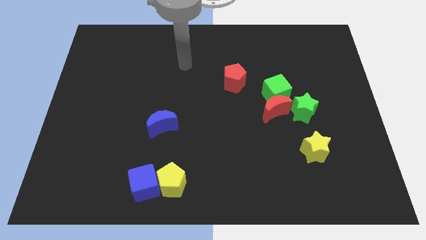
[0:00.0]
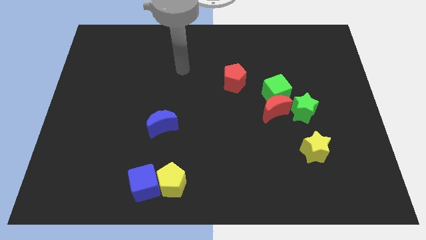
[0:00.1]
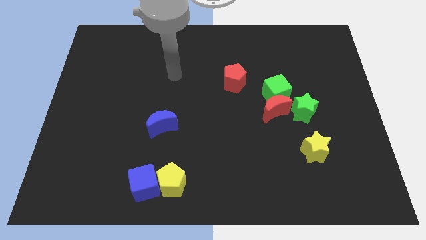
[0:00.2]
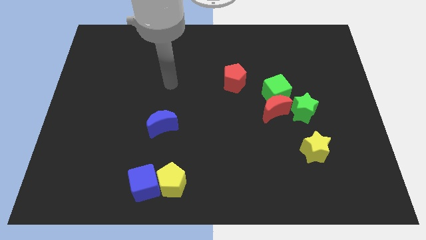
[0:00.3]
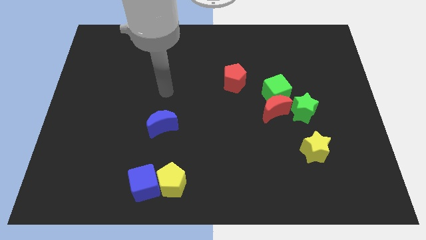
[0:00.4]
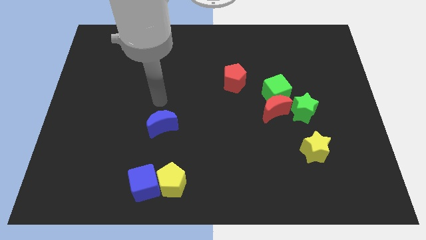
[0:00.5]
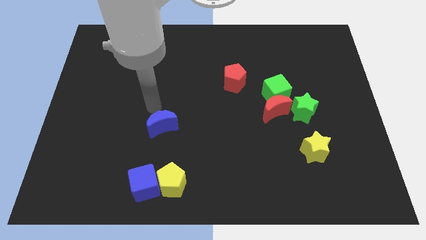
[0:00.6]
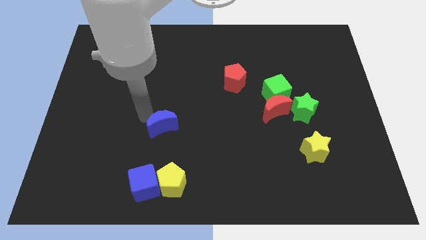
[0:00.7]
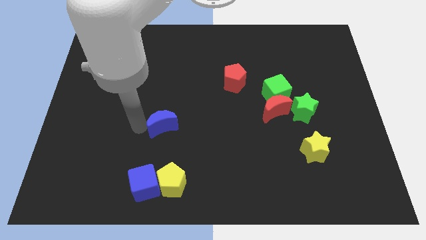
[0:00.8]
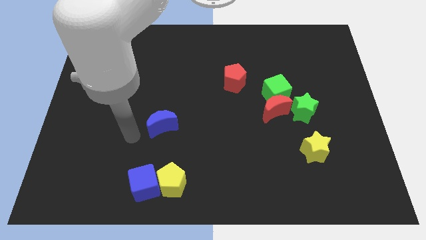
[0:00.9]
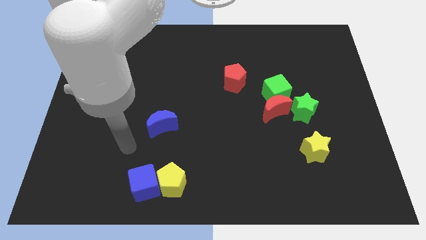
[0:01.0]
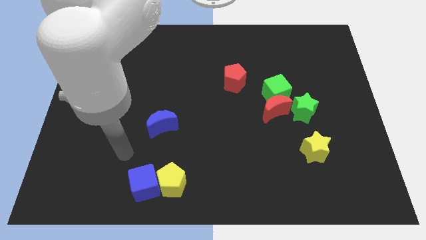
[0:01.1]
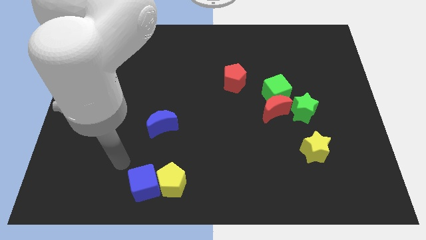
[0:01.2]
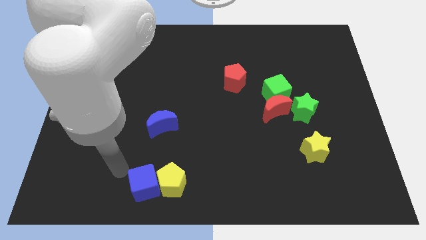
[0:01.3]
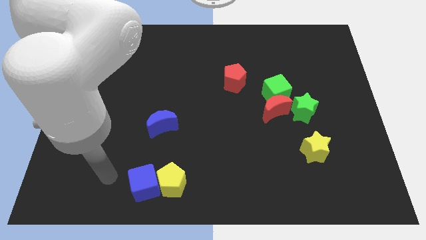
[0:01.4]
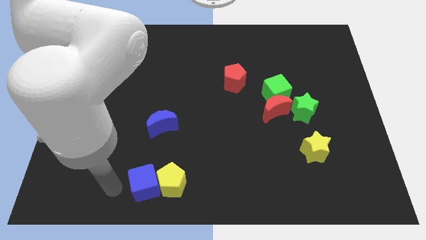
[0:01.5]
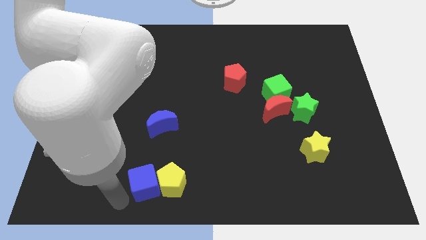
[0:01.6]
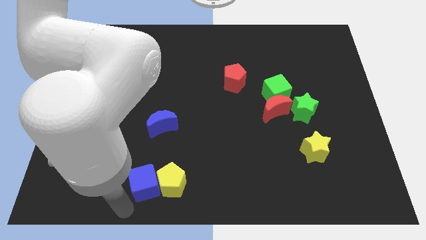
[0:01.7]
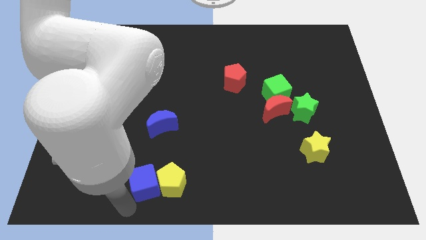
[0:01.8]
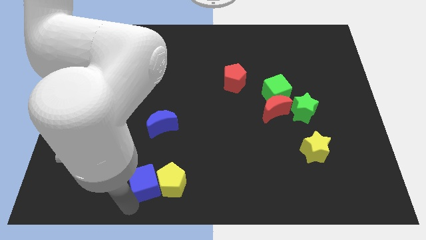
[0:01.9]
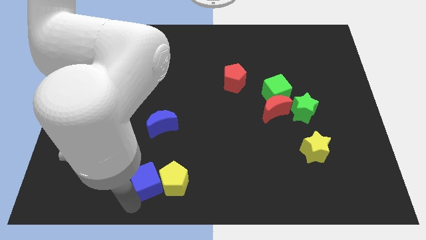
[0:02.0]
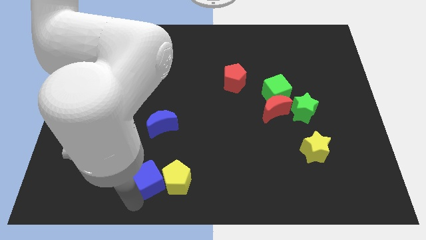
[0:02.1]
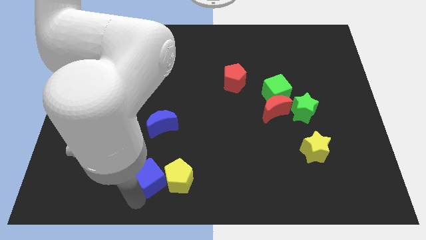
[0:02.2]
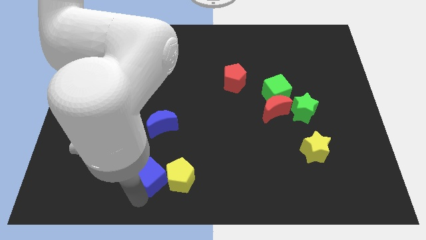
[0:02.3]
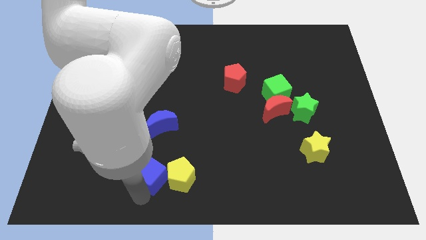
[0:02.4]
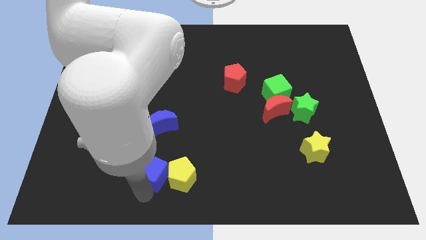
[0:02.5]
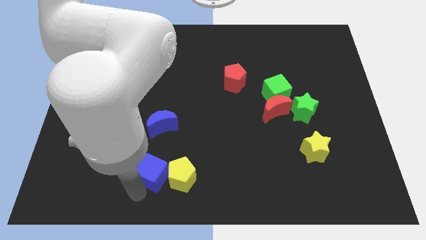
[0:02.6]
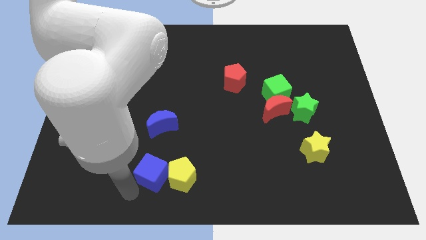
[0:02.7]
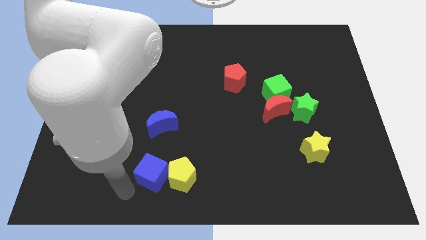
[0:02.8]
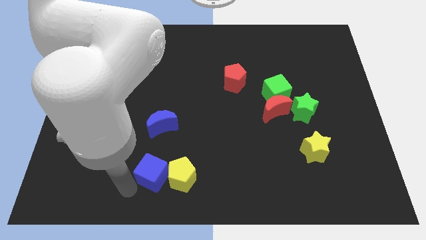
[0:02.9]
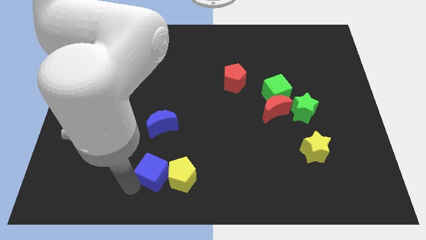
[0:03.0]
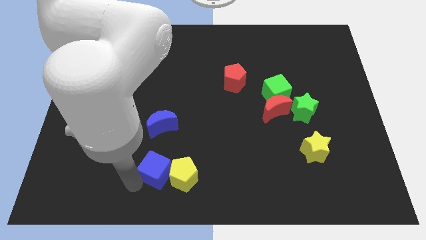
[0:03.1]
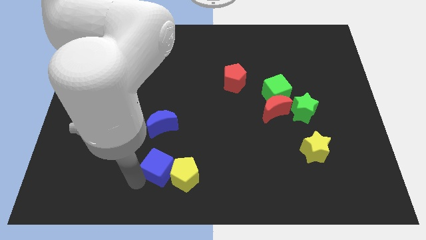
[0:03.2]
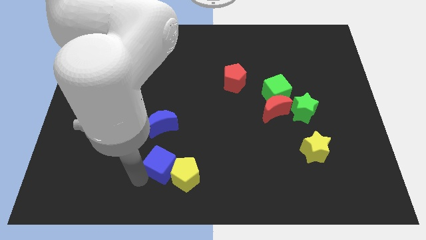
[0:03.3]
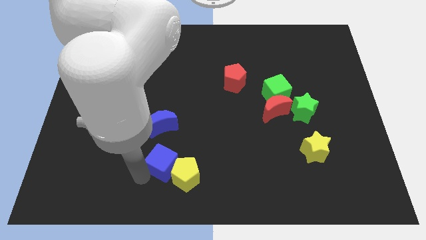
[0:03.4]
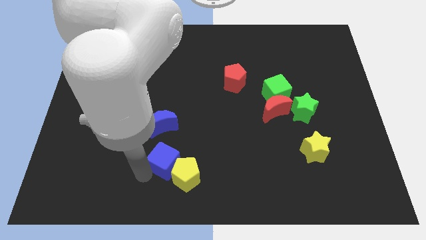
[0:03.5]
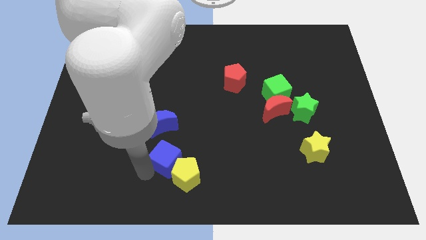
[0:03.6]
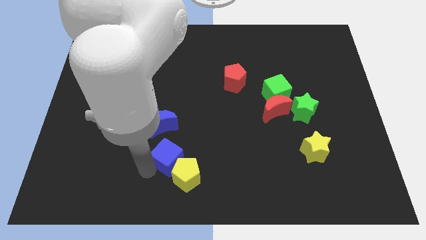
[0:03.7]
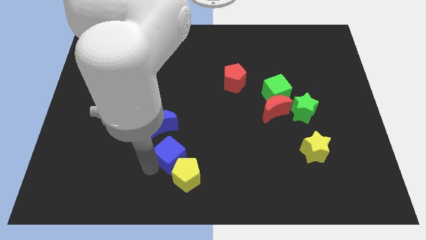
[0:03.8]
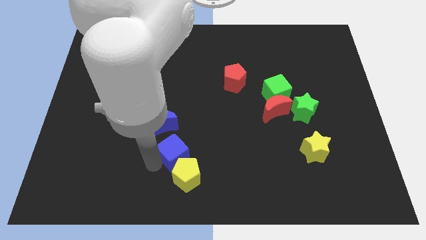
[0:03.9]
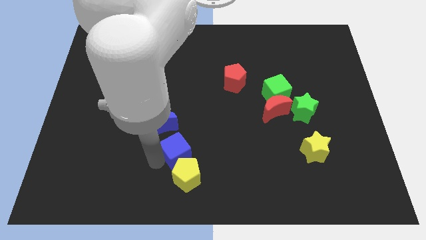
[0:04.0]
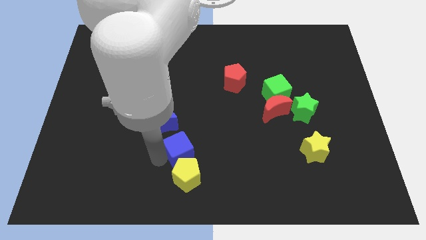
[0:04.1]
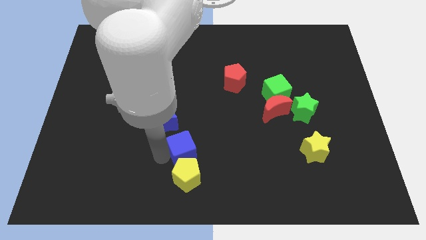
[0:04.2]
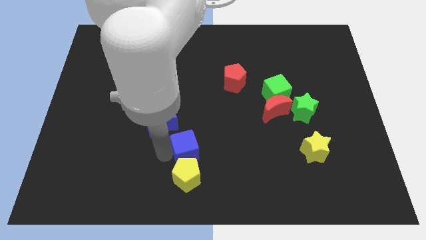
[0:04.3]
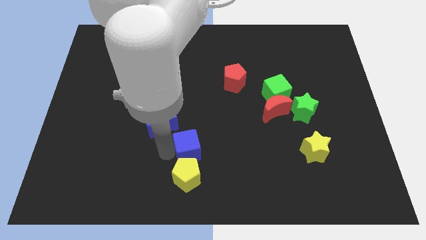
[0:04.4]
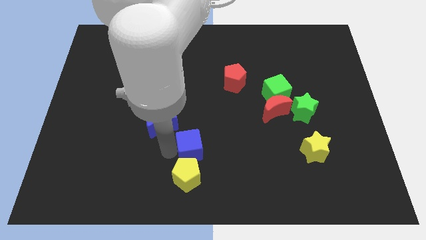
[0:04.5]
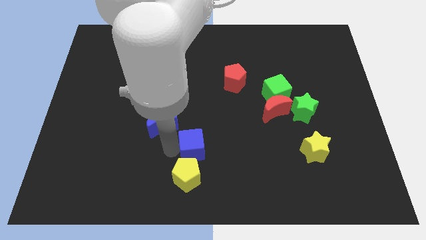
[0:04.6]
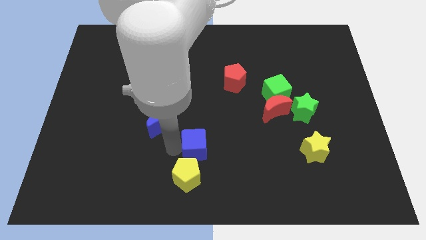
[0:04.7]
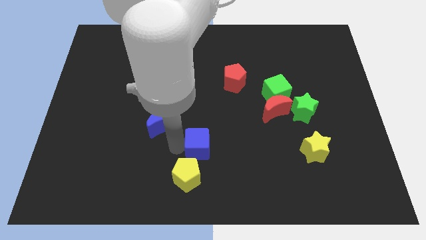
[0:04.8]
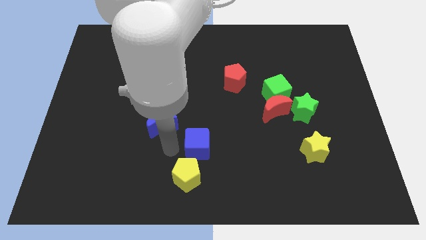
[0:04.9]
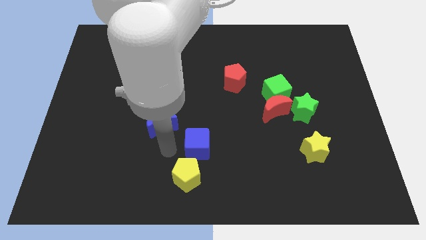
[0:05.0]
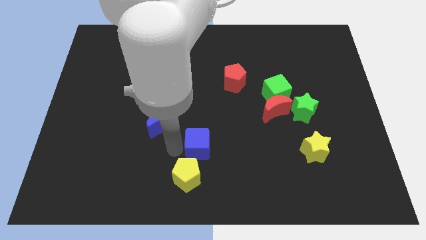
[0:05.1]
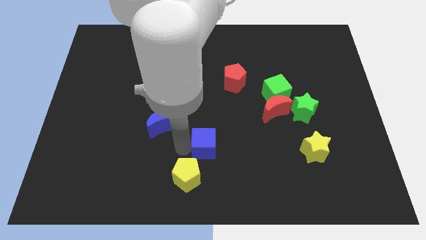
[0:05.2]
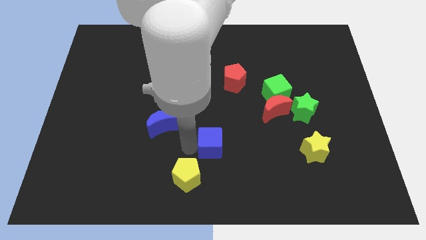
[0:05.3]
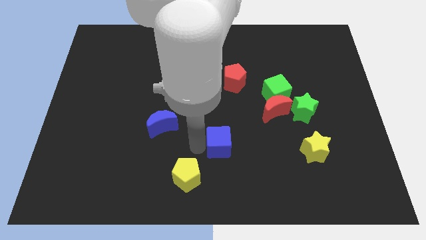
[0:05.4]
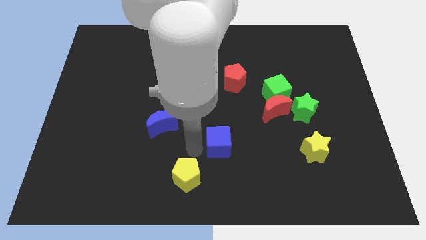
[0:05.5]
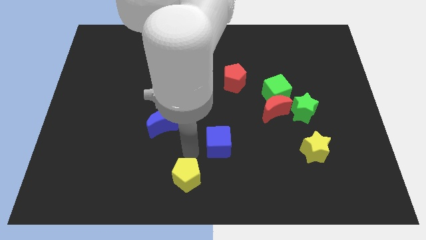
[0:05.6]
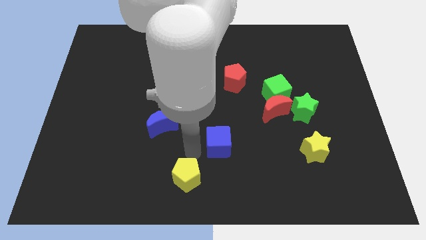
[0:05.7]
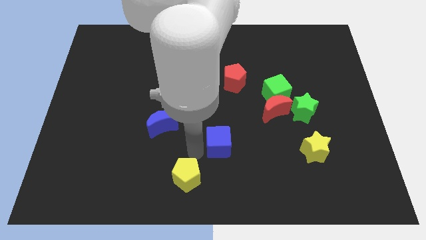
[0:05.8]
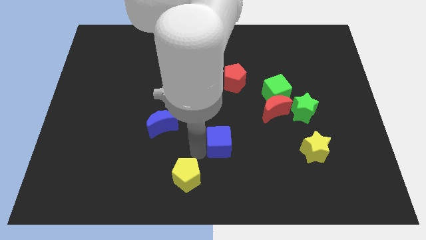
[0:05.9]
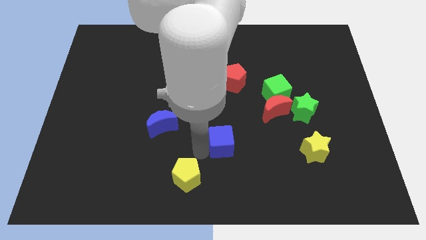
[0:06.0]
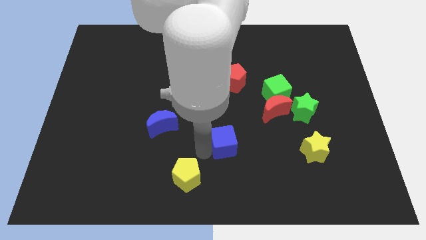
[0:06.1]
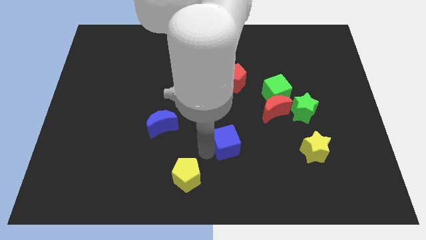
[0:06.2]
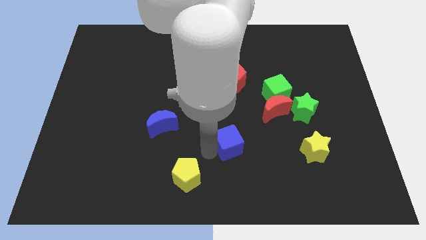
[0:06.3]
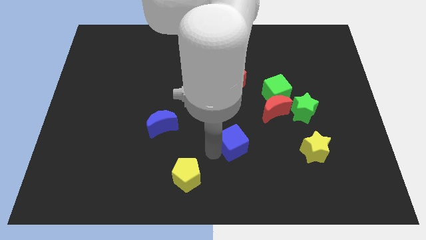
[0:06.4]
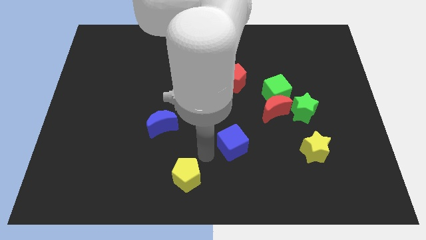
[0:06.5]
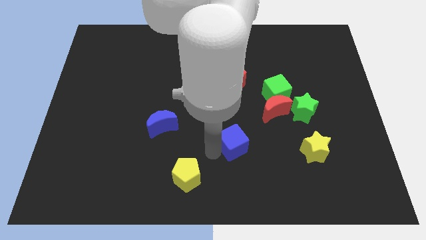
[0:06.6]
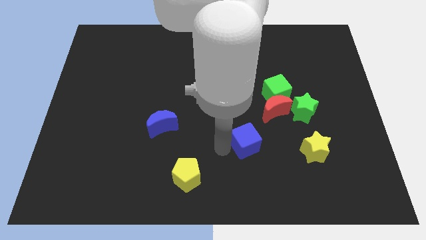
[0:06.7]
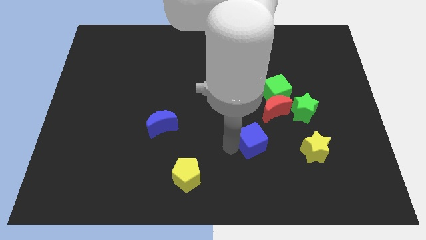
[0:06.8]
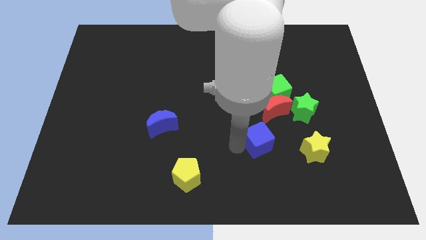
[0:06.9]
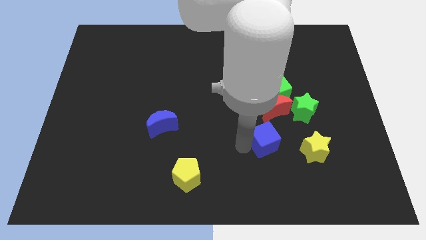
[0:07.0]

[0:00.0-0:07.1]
push the blue cube to the bottom left side of the green star

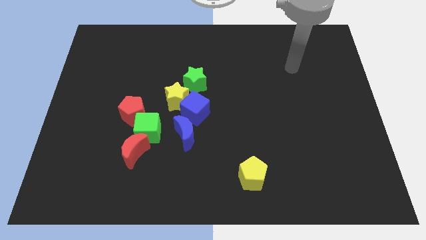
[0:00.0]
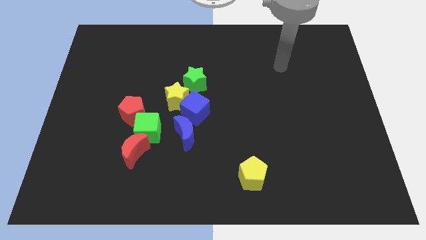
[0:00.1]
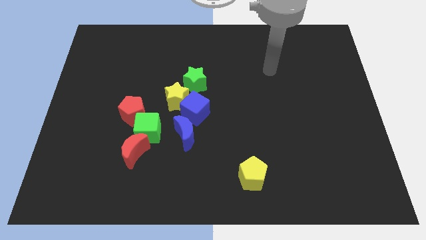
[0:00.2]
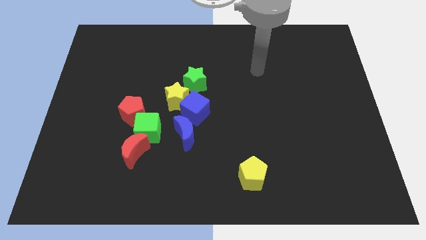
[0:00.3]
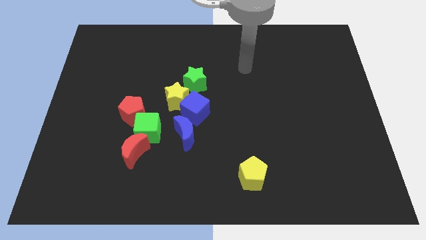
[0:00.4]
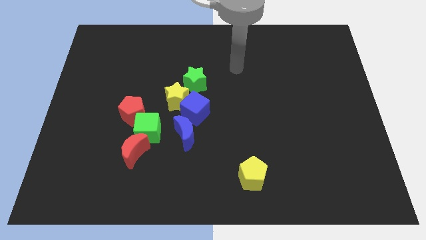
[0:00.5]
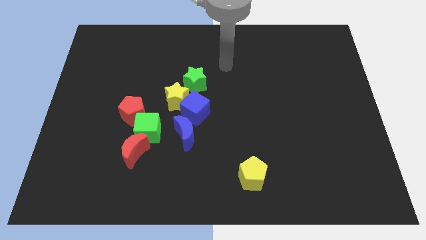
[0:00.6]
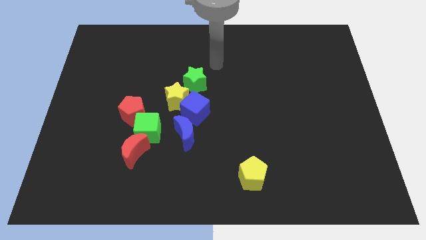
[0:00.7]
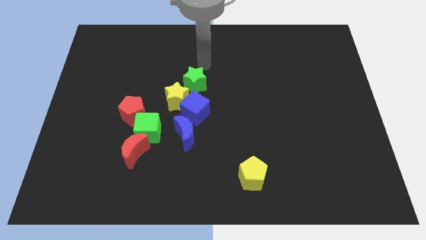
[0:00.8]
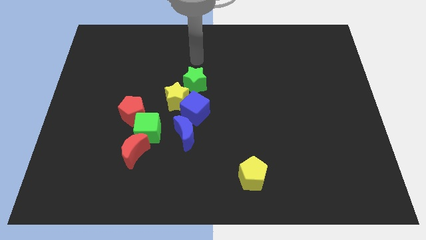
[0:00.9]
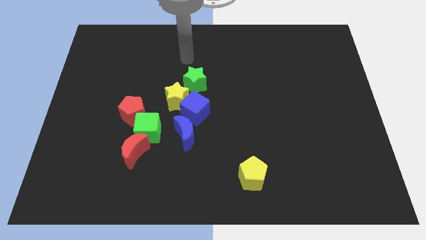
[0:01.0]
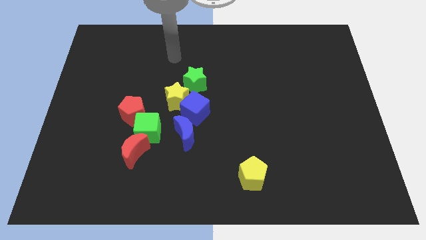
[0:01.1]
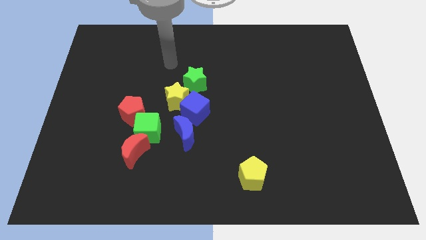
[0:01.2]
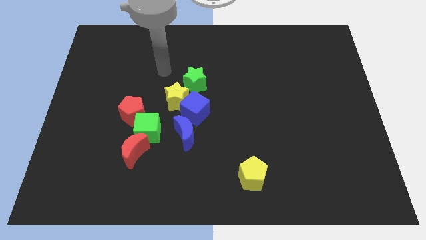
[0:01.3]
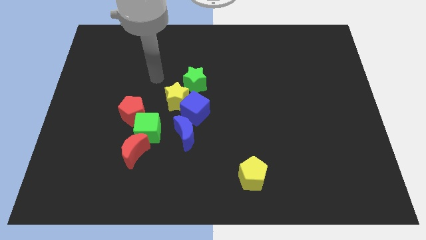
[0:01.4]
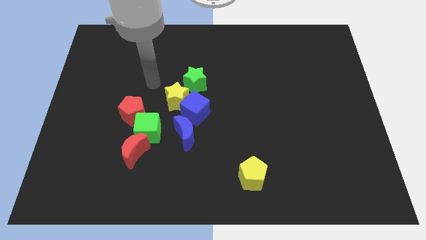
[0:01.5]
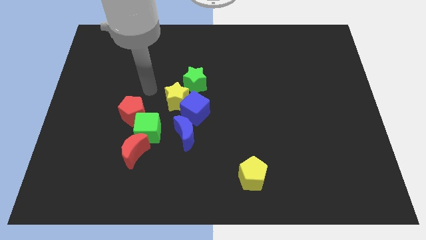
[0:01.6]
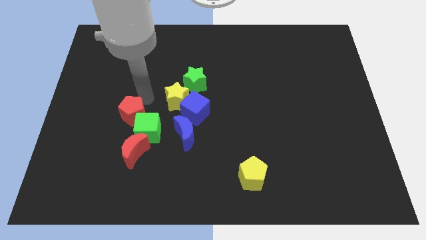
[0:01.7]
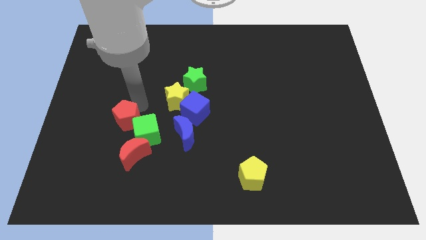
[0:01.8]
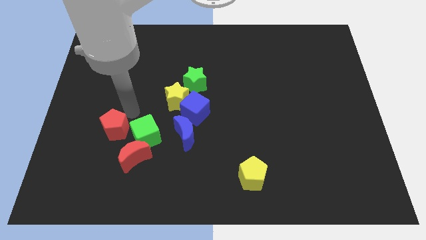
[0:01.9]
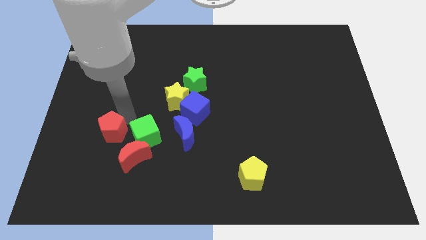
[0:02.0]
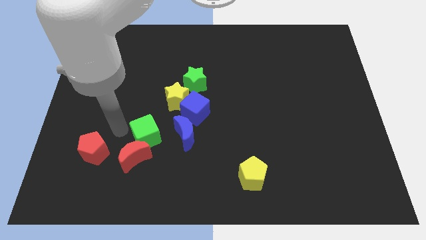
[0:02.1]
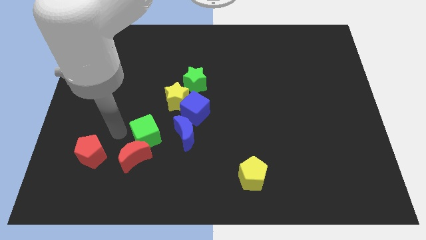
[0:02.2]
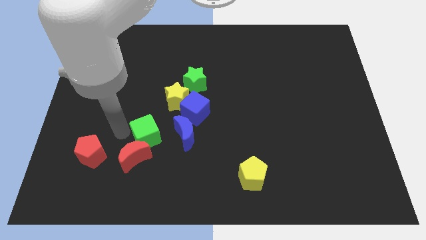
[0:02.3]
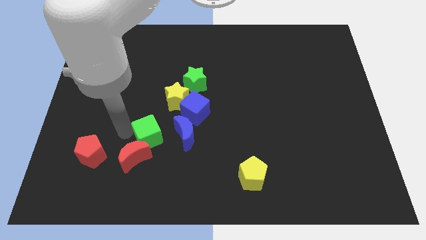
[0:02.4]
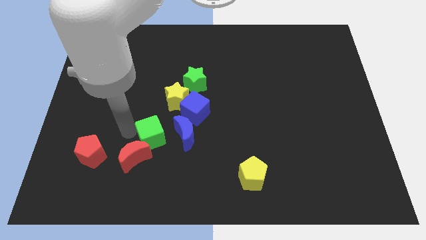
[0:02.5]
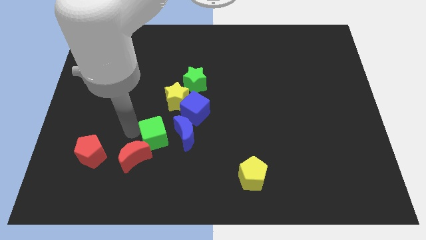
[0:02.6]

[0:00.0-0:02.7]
push the green cube to the bottom side of the yellow star
